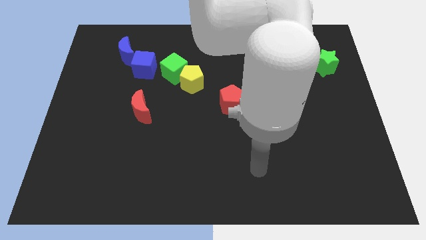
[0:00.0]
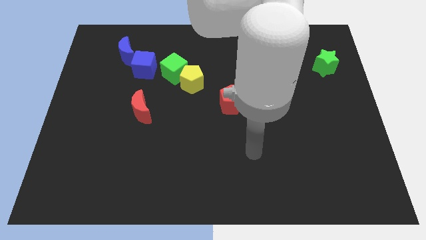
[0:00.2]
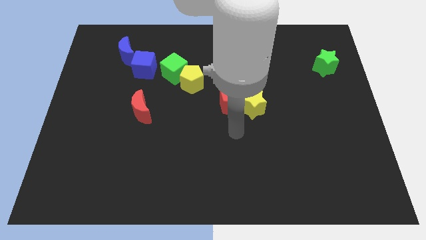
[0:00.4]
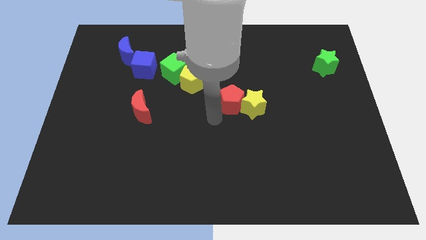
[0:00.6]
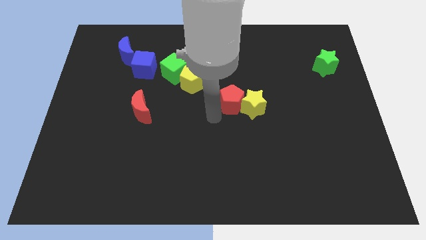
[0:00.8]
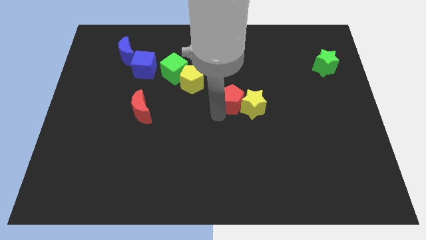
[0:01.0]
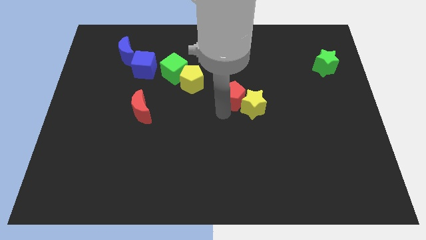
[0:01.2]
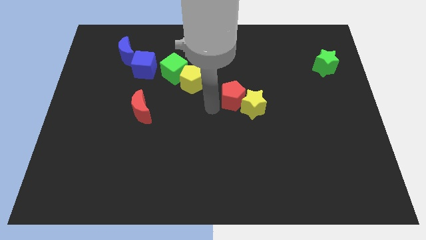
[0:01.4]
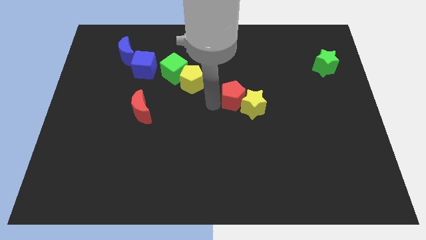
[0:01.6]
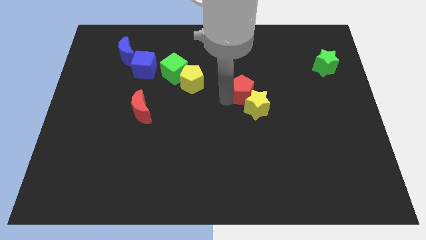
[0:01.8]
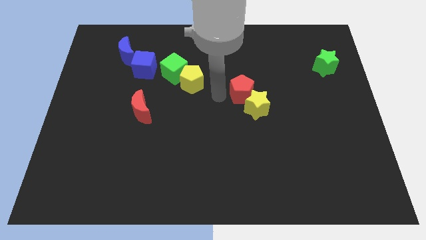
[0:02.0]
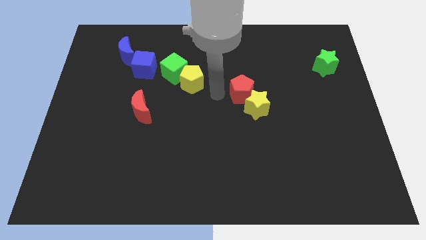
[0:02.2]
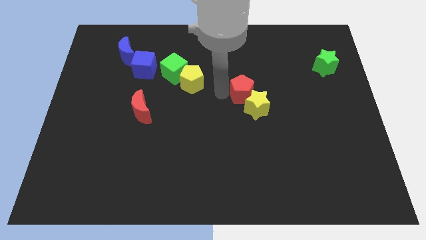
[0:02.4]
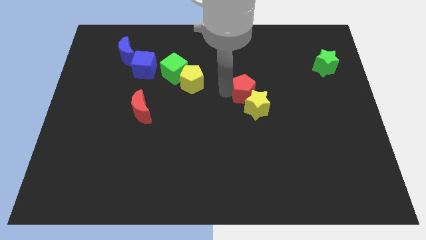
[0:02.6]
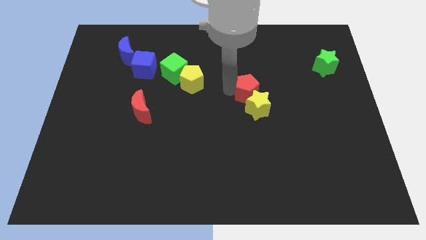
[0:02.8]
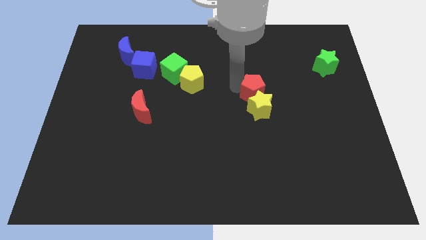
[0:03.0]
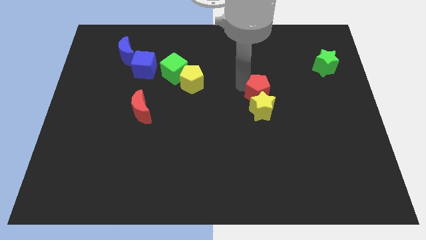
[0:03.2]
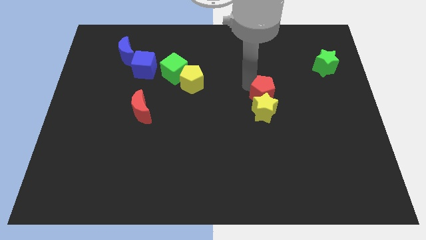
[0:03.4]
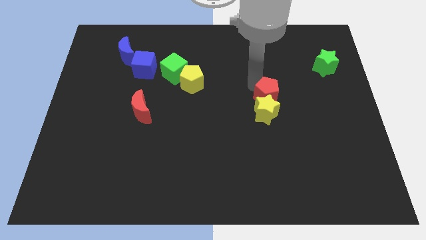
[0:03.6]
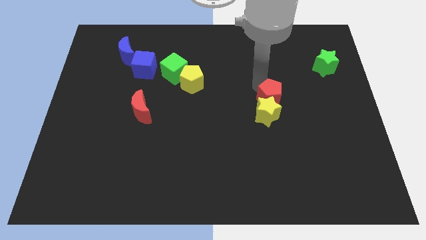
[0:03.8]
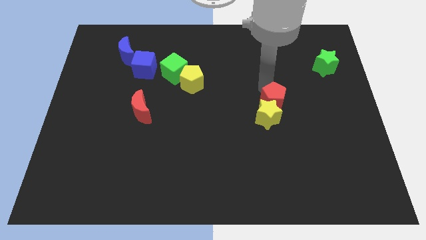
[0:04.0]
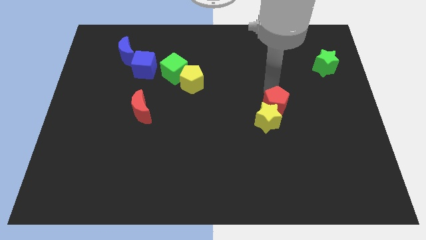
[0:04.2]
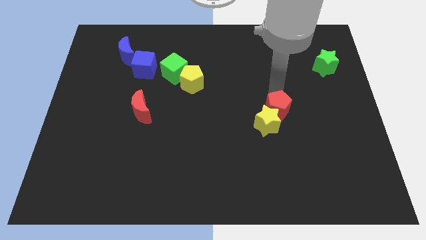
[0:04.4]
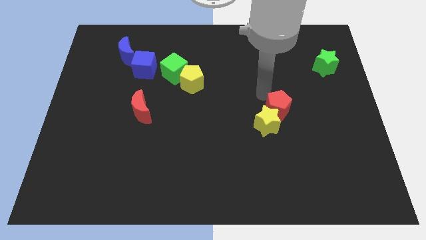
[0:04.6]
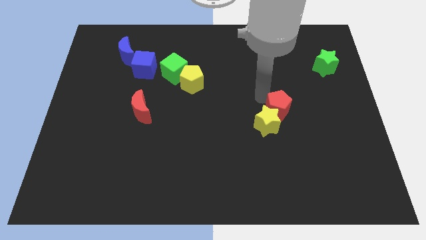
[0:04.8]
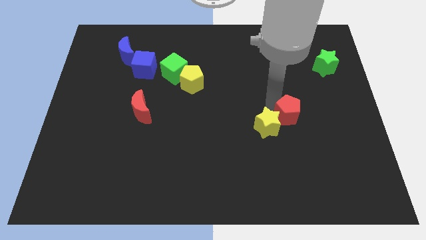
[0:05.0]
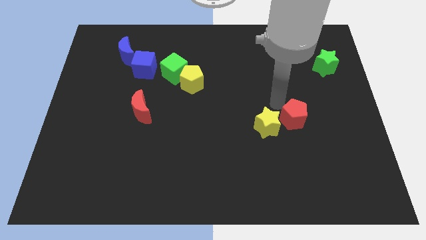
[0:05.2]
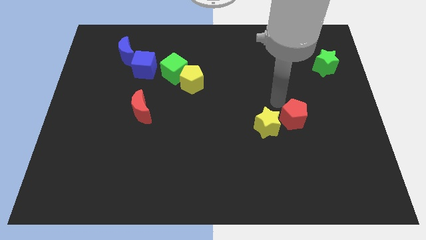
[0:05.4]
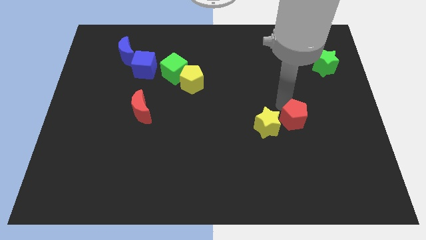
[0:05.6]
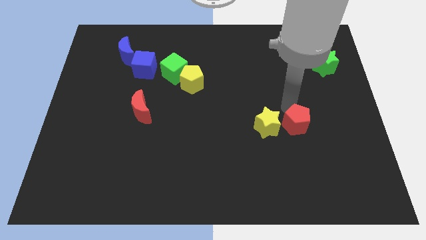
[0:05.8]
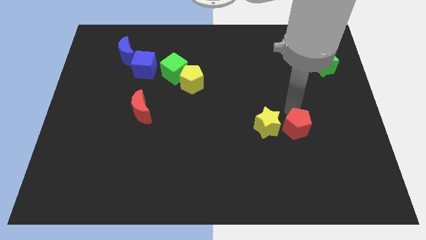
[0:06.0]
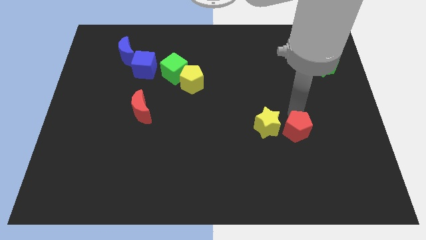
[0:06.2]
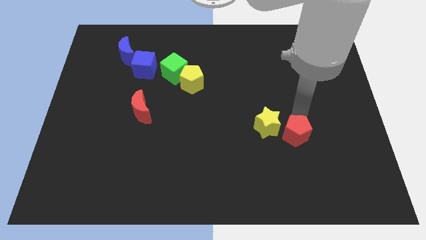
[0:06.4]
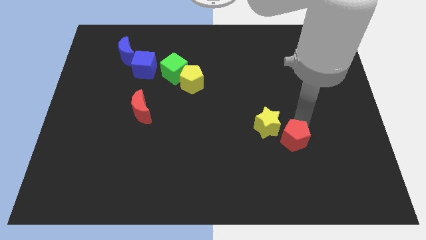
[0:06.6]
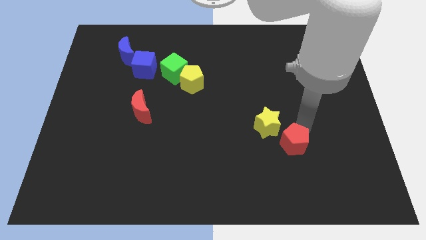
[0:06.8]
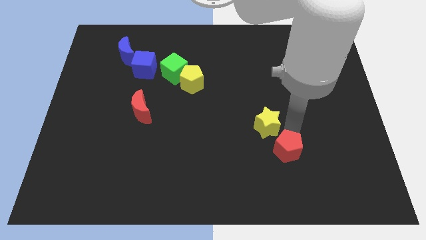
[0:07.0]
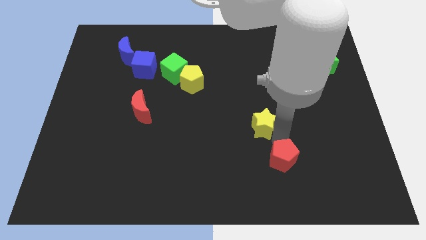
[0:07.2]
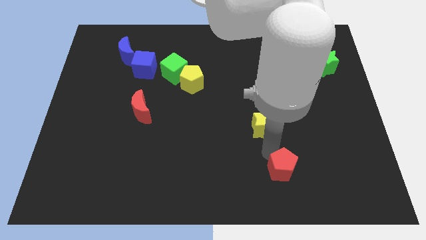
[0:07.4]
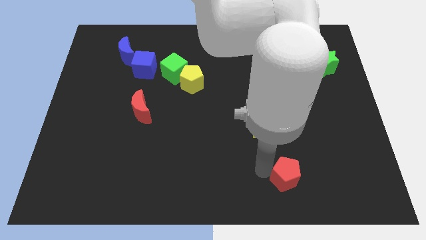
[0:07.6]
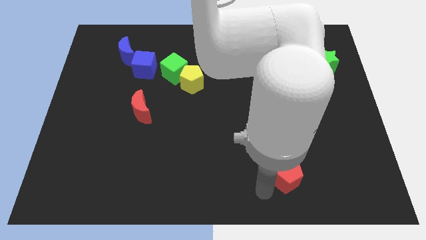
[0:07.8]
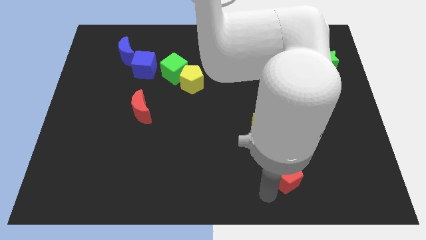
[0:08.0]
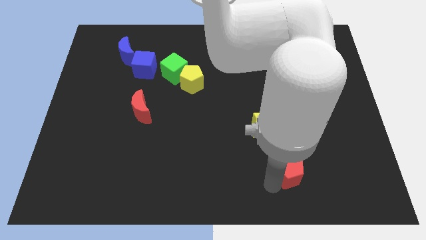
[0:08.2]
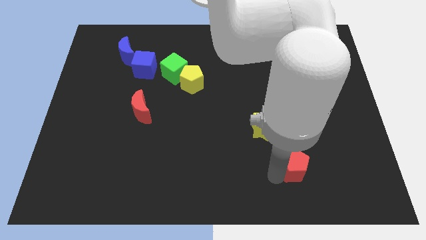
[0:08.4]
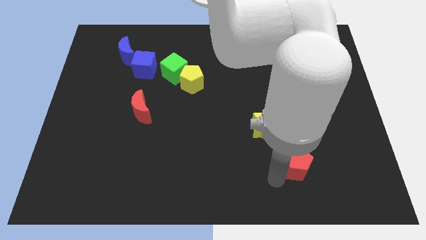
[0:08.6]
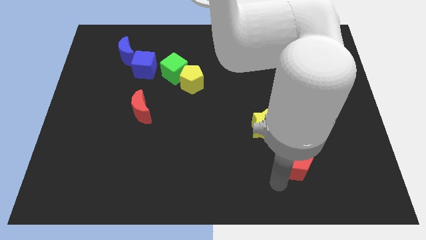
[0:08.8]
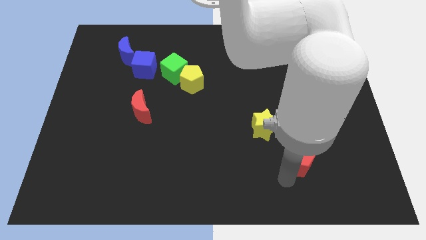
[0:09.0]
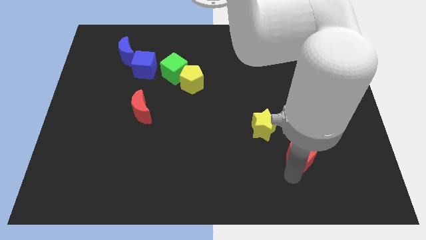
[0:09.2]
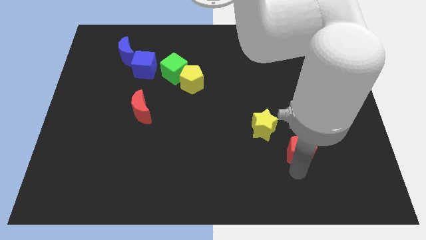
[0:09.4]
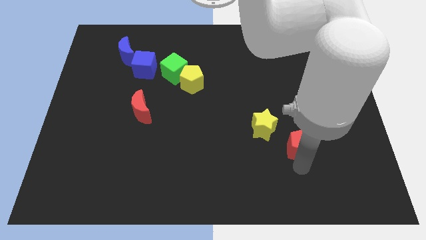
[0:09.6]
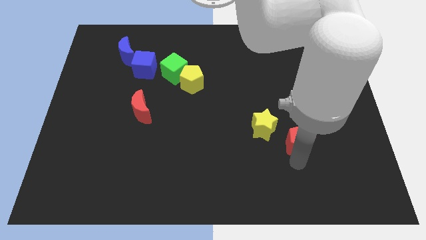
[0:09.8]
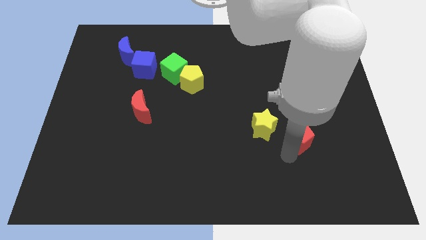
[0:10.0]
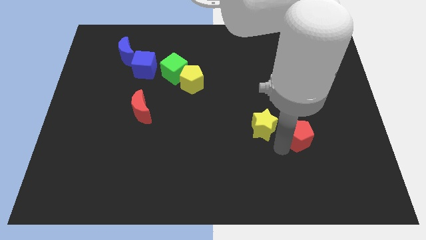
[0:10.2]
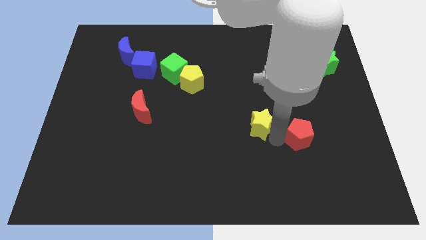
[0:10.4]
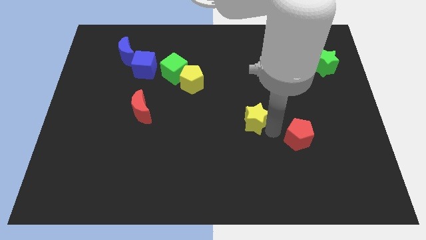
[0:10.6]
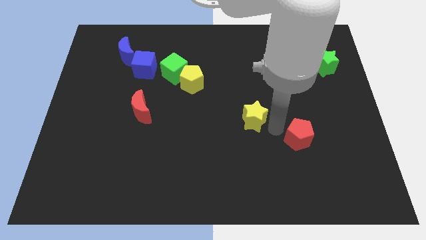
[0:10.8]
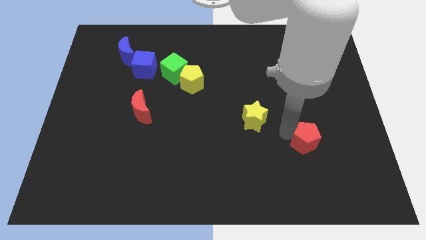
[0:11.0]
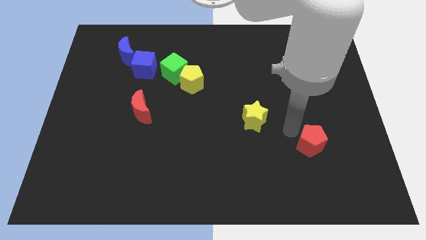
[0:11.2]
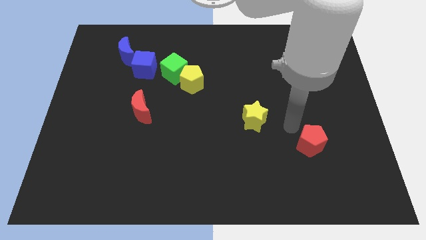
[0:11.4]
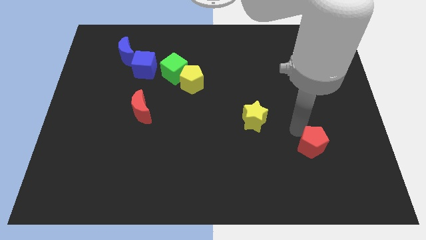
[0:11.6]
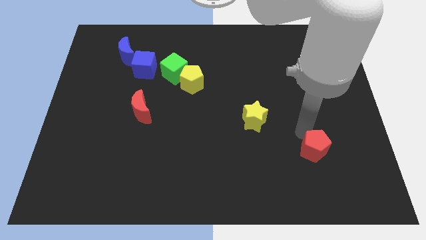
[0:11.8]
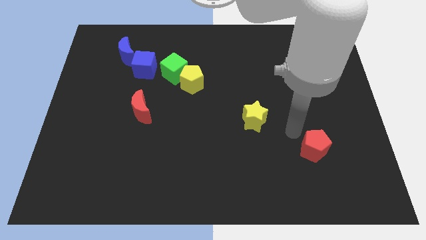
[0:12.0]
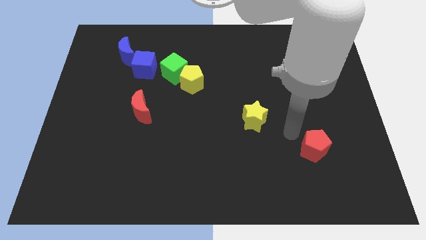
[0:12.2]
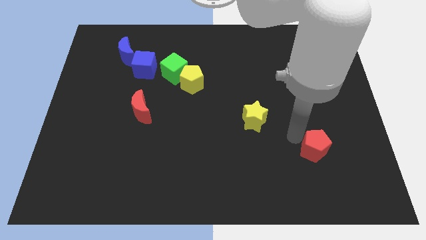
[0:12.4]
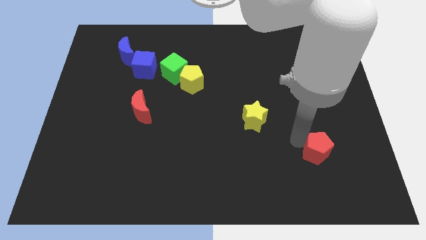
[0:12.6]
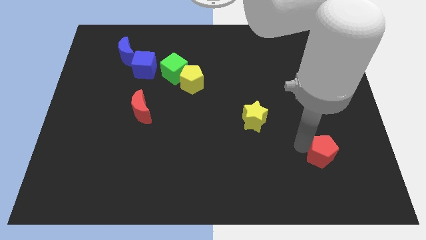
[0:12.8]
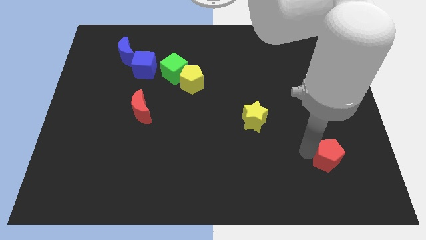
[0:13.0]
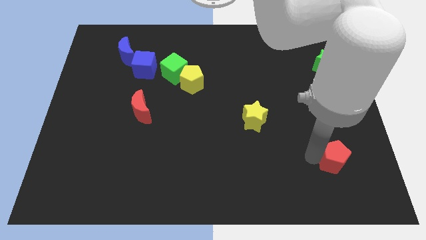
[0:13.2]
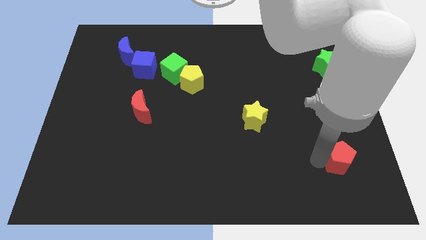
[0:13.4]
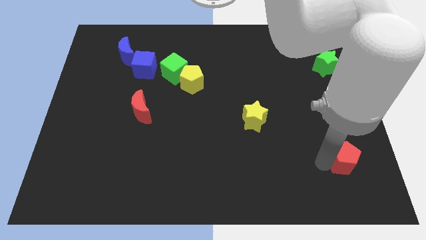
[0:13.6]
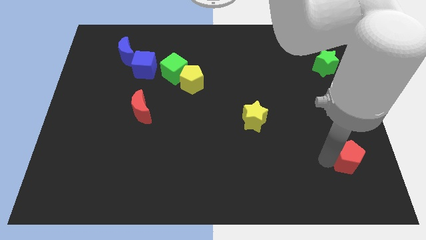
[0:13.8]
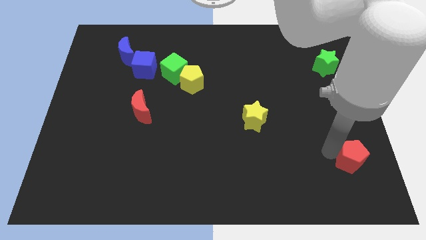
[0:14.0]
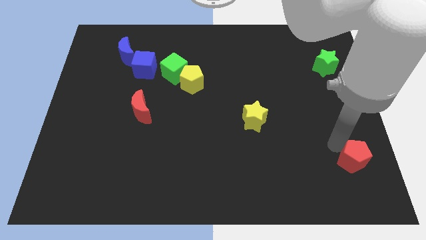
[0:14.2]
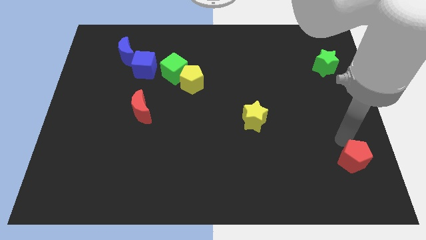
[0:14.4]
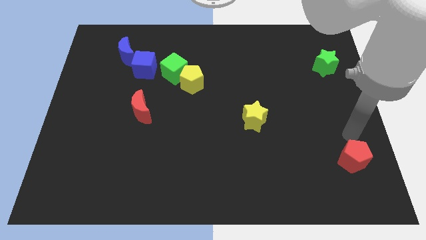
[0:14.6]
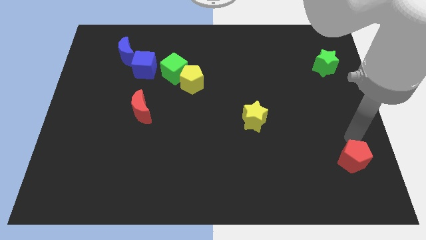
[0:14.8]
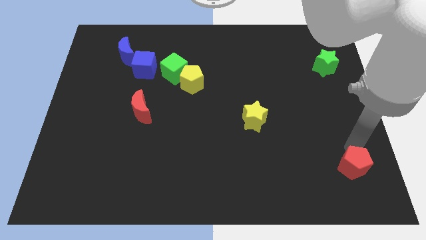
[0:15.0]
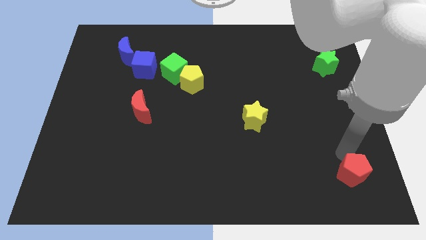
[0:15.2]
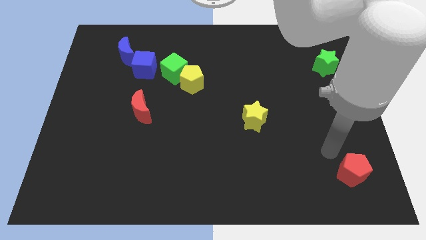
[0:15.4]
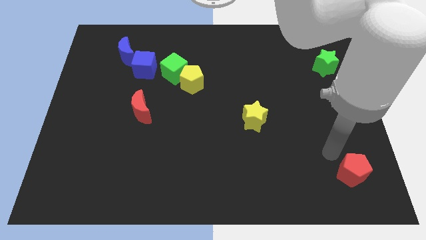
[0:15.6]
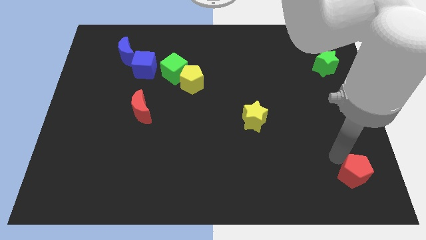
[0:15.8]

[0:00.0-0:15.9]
push the red pentagon to the lower right corner
